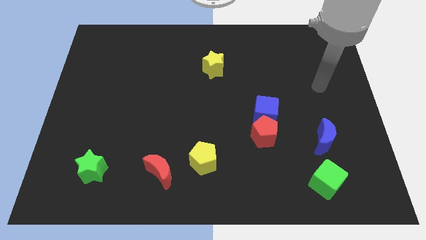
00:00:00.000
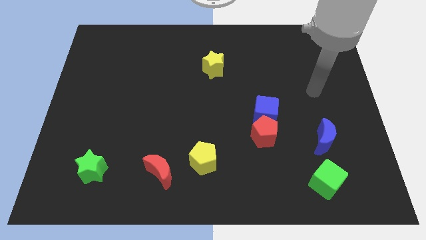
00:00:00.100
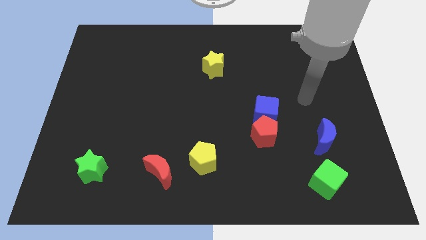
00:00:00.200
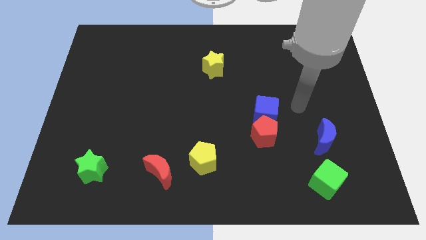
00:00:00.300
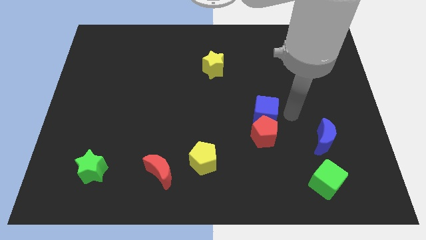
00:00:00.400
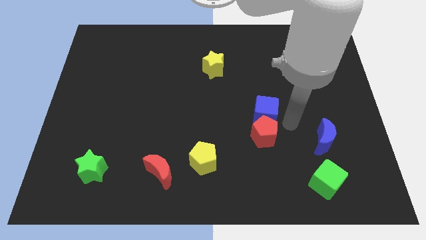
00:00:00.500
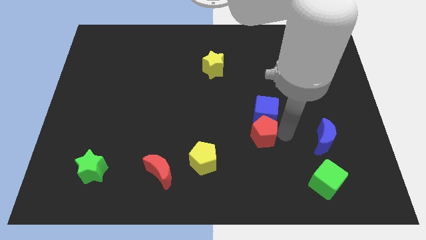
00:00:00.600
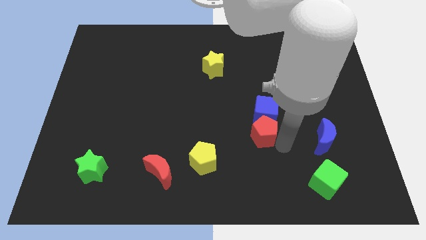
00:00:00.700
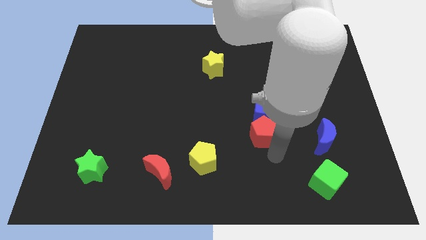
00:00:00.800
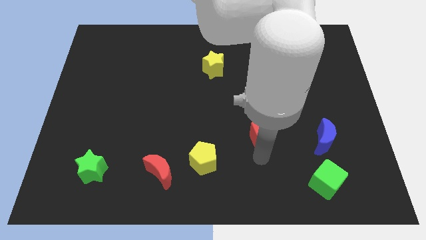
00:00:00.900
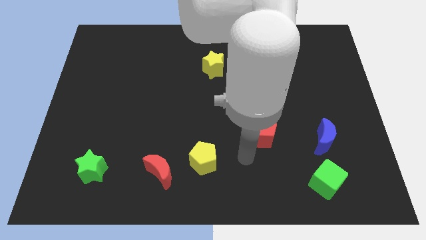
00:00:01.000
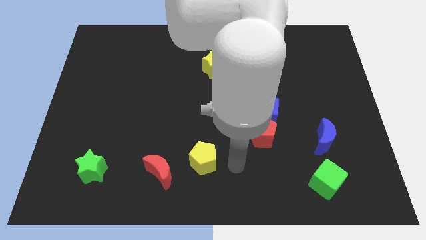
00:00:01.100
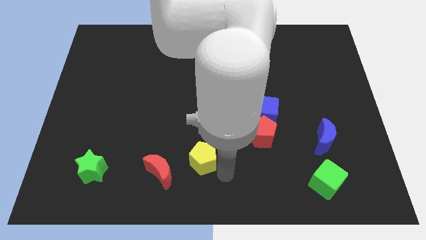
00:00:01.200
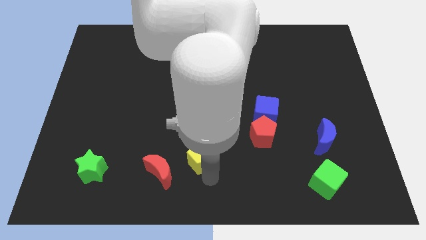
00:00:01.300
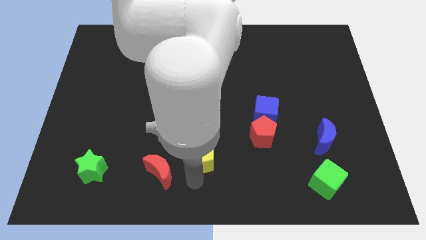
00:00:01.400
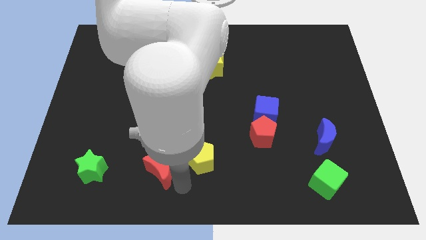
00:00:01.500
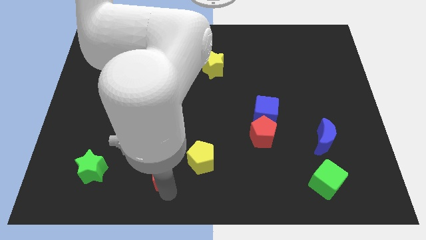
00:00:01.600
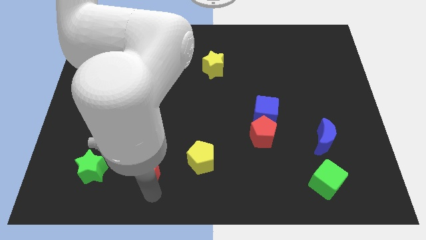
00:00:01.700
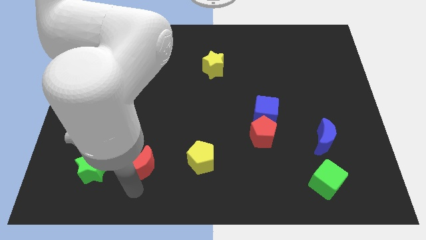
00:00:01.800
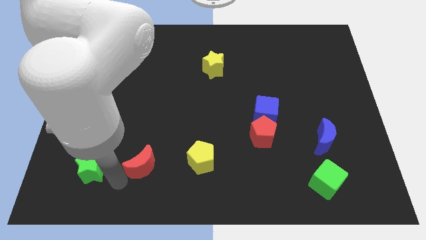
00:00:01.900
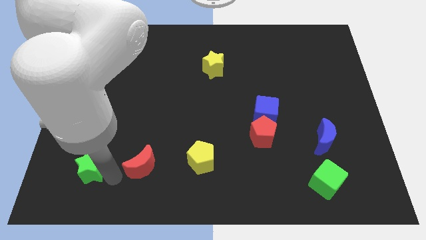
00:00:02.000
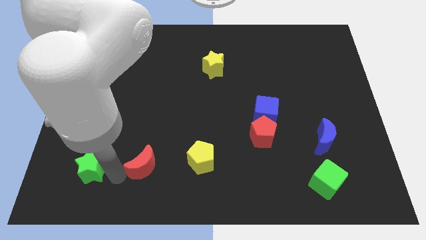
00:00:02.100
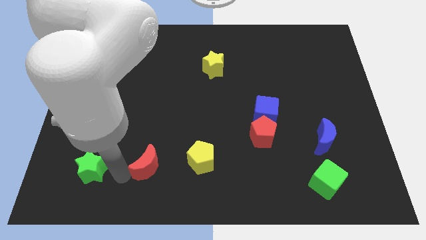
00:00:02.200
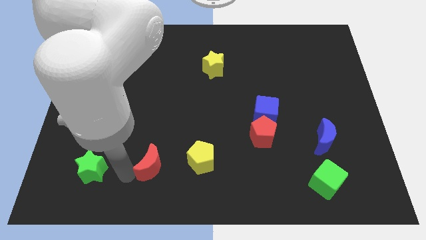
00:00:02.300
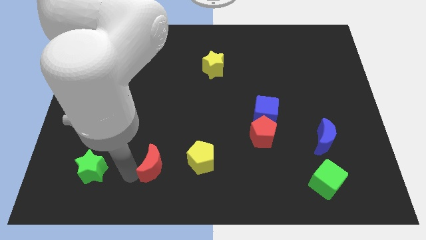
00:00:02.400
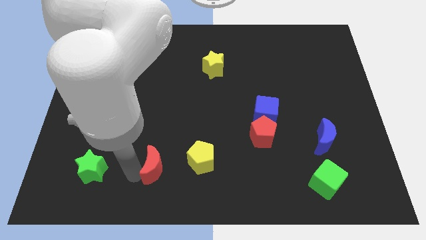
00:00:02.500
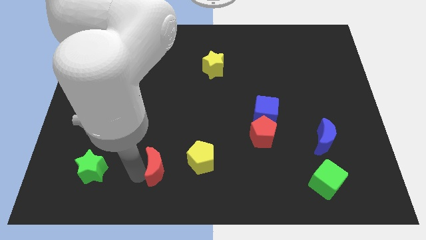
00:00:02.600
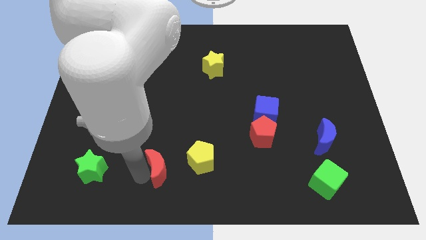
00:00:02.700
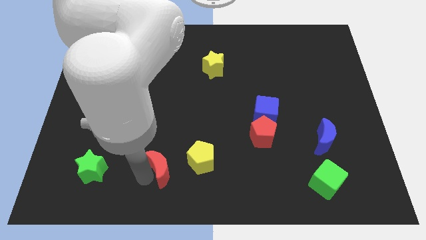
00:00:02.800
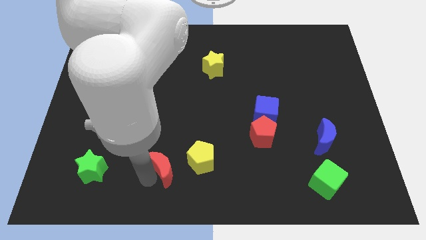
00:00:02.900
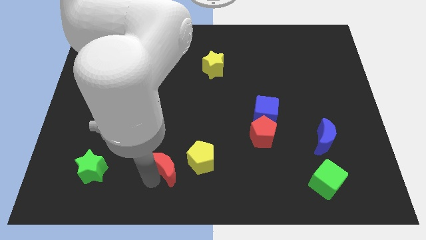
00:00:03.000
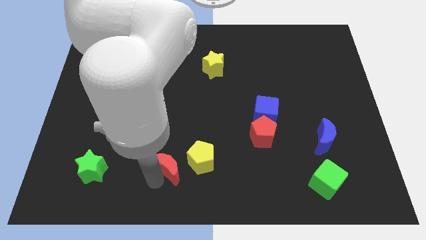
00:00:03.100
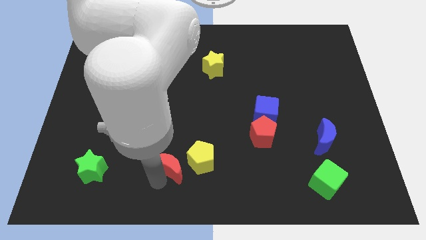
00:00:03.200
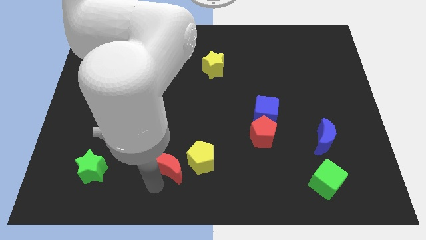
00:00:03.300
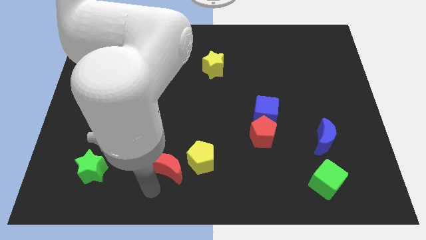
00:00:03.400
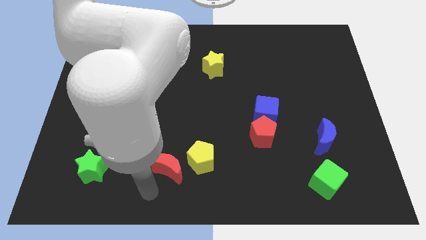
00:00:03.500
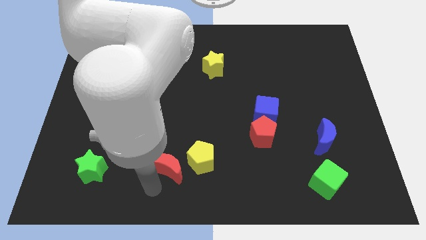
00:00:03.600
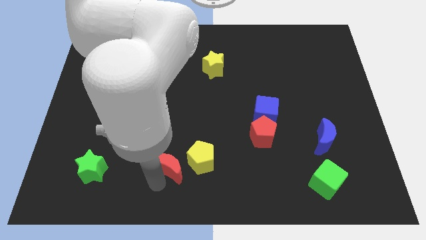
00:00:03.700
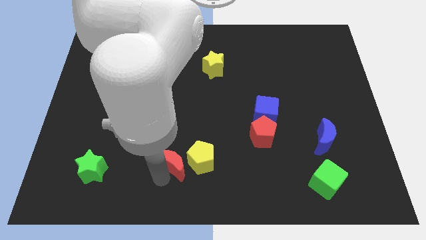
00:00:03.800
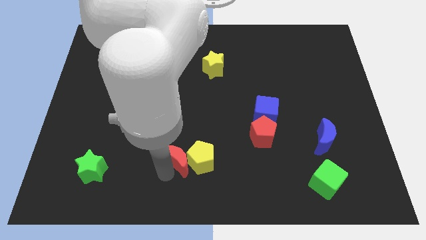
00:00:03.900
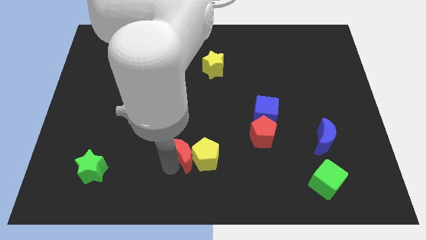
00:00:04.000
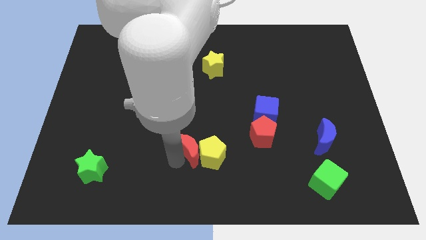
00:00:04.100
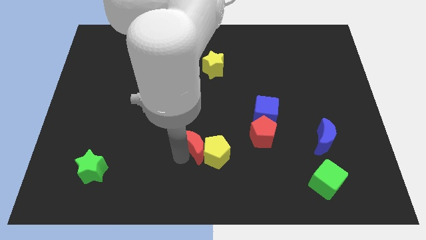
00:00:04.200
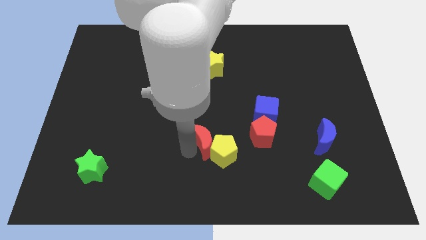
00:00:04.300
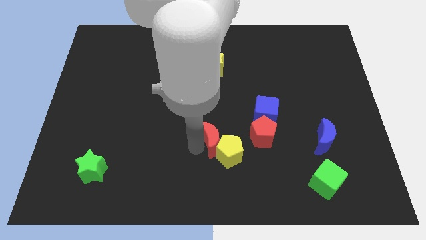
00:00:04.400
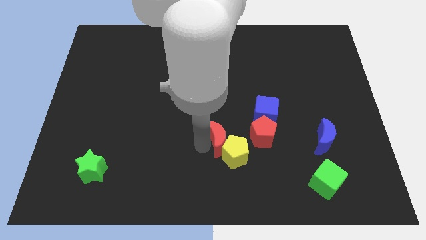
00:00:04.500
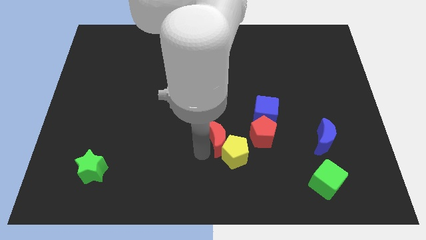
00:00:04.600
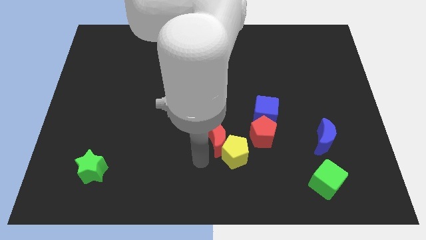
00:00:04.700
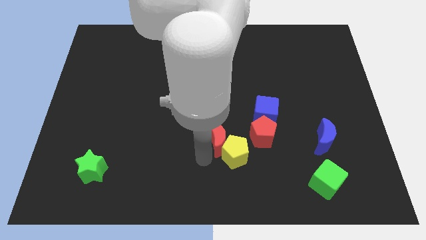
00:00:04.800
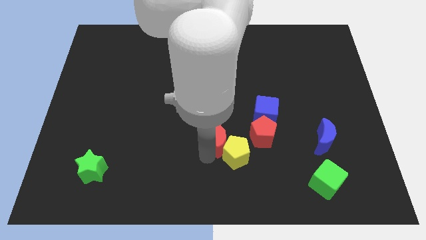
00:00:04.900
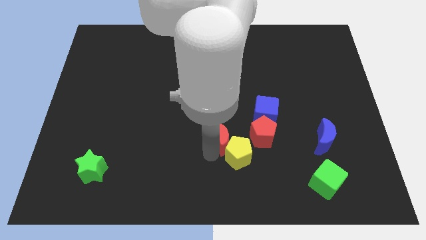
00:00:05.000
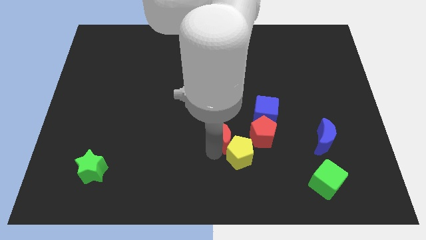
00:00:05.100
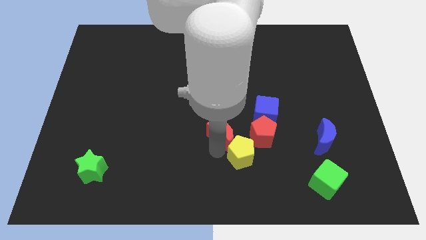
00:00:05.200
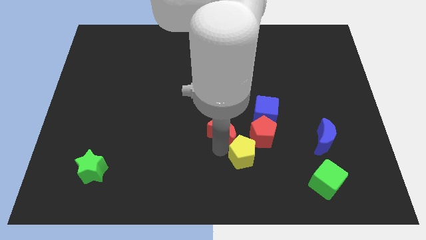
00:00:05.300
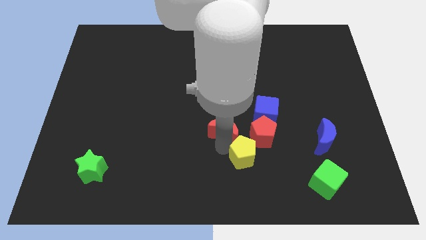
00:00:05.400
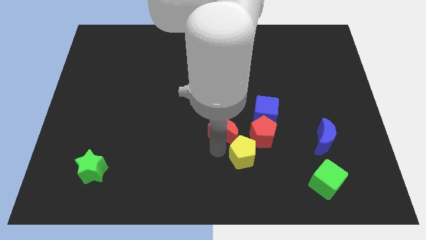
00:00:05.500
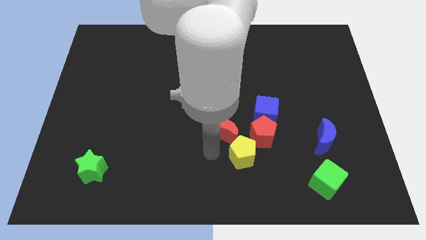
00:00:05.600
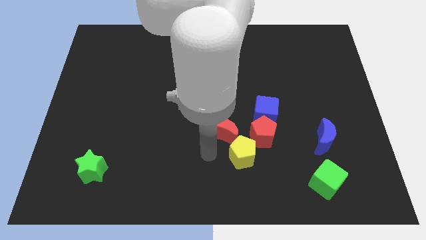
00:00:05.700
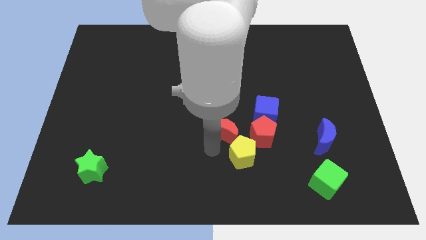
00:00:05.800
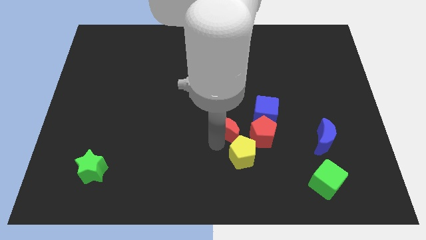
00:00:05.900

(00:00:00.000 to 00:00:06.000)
push the red moon to the top left side of the red pentagon
